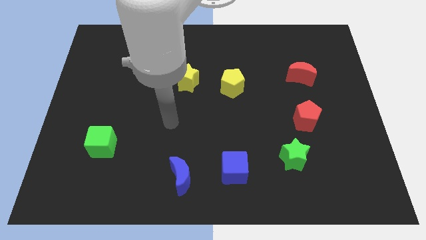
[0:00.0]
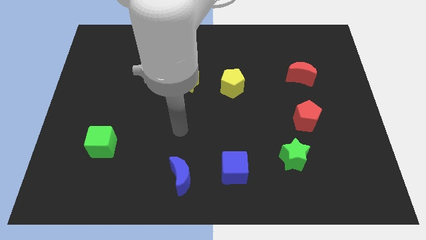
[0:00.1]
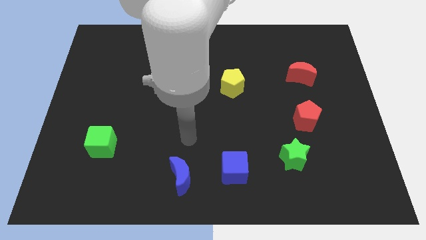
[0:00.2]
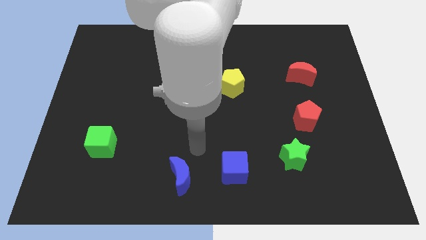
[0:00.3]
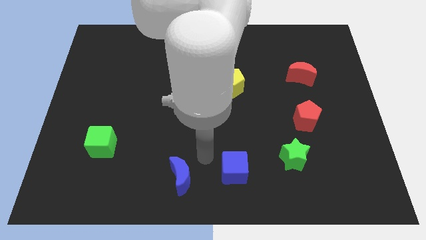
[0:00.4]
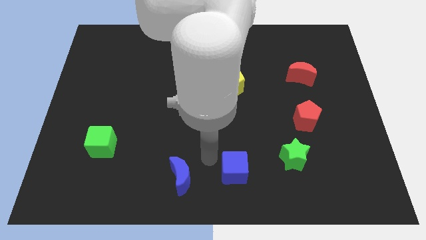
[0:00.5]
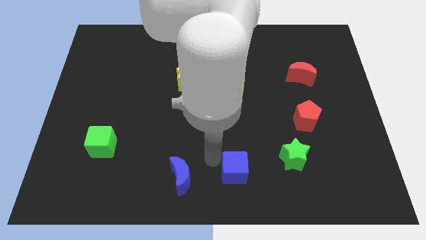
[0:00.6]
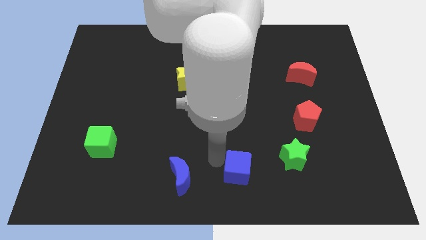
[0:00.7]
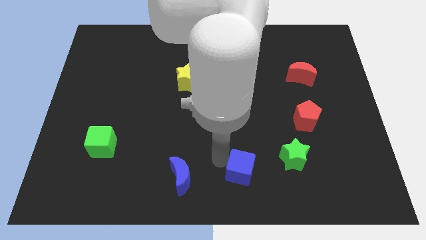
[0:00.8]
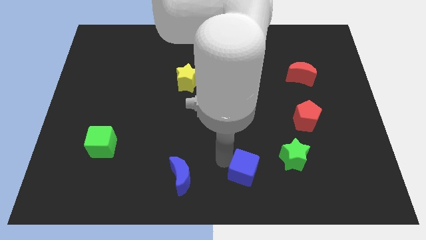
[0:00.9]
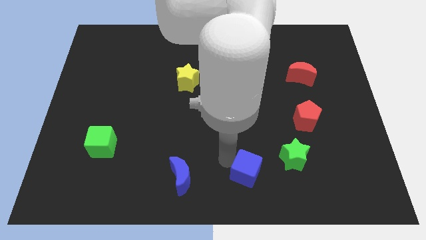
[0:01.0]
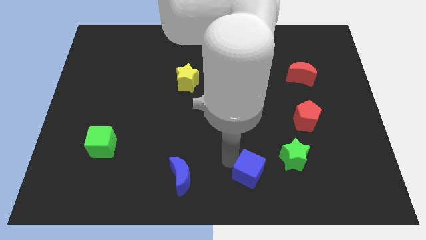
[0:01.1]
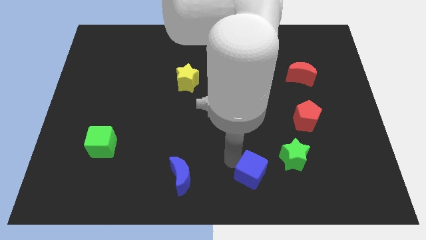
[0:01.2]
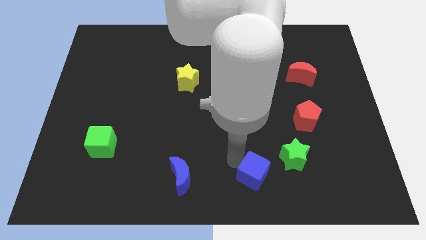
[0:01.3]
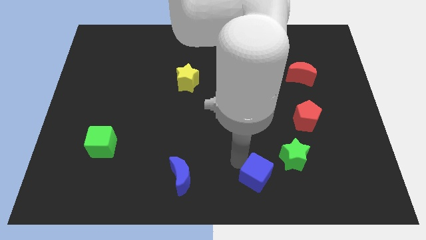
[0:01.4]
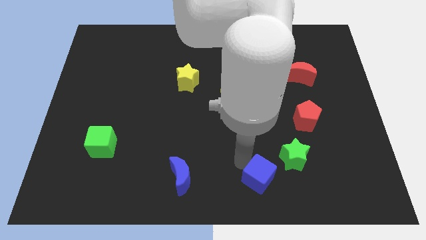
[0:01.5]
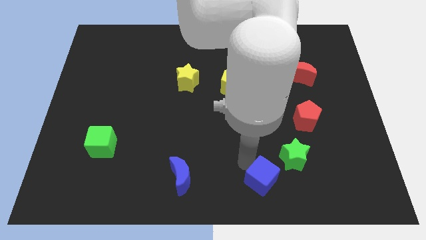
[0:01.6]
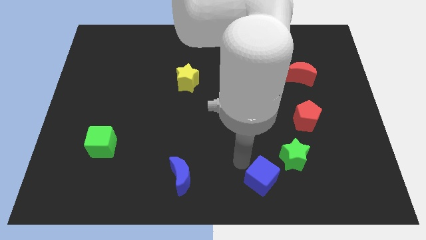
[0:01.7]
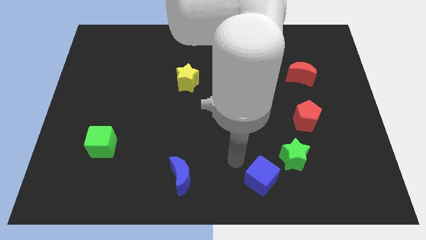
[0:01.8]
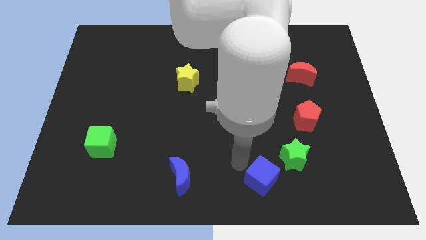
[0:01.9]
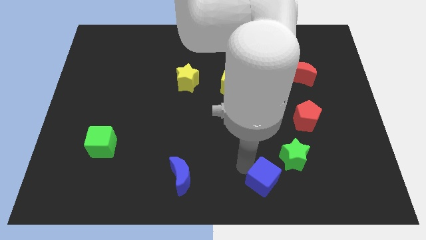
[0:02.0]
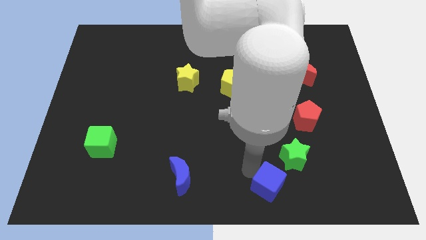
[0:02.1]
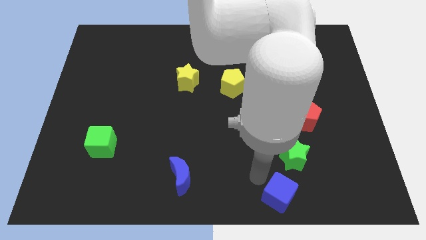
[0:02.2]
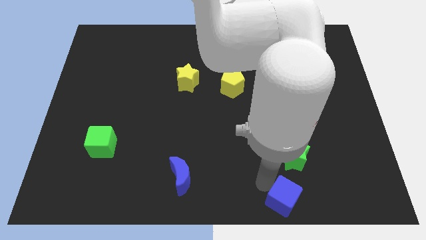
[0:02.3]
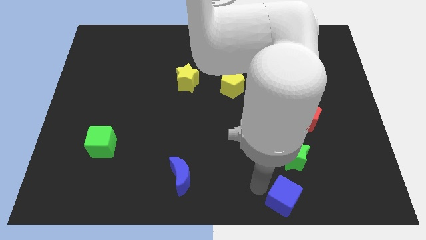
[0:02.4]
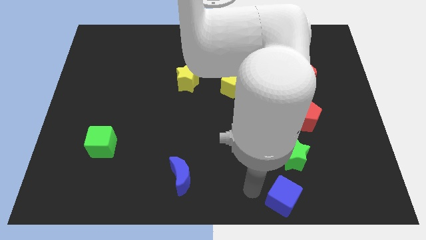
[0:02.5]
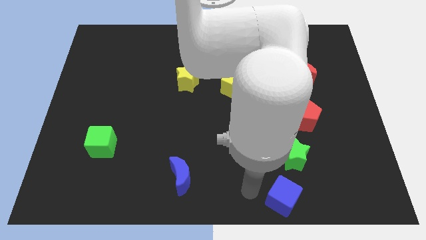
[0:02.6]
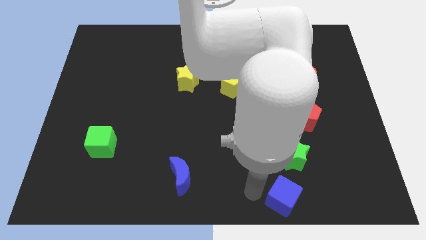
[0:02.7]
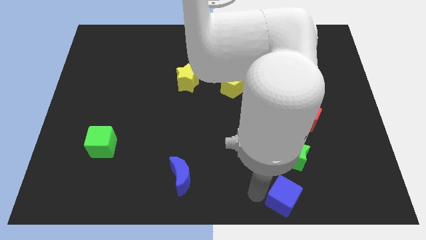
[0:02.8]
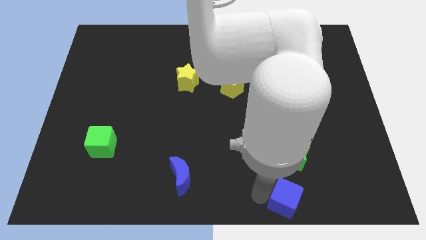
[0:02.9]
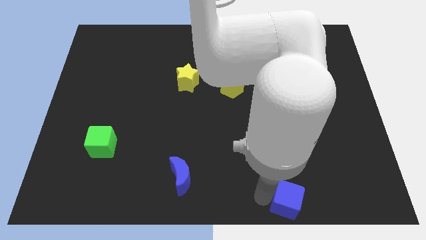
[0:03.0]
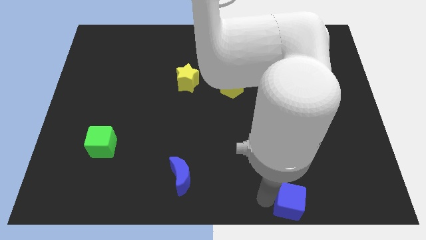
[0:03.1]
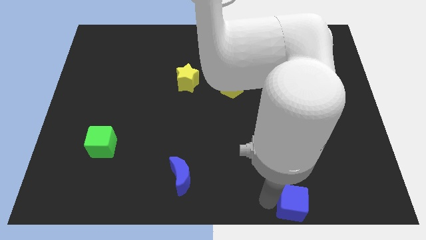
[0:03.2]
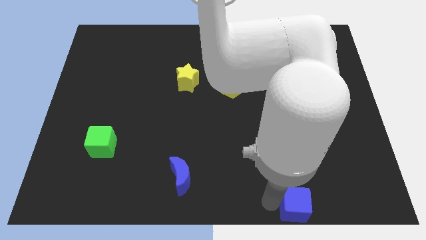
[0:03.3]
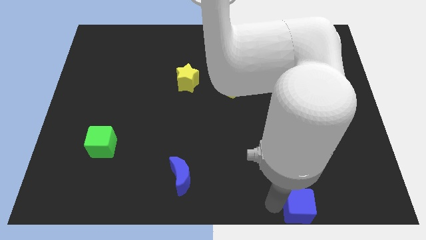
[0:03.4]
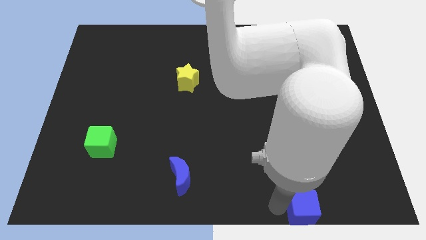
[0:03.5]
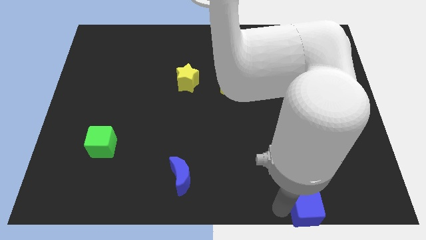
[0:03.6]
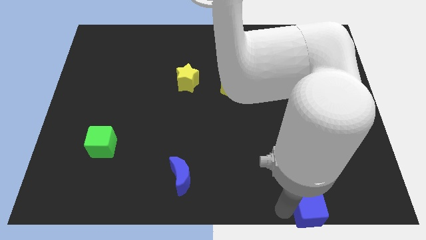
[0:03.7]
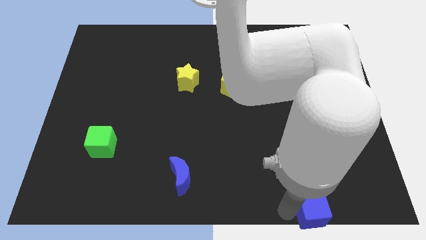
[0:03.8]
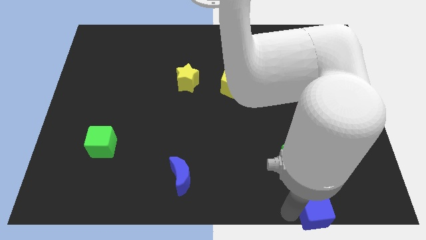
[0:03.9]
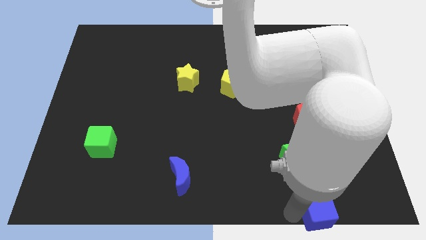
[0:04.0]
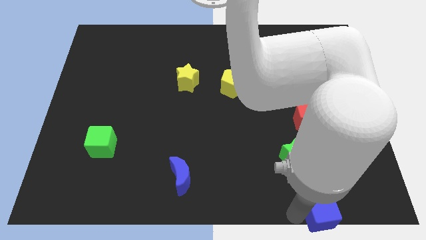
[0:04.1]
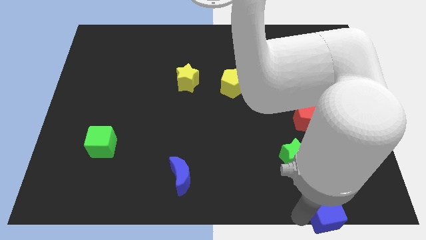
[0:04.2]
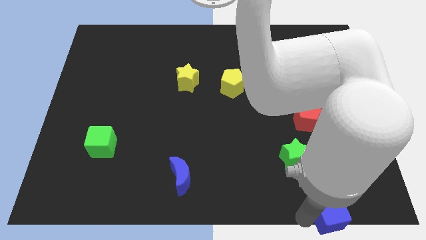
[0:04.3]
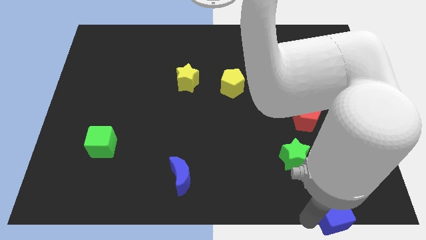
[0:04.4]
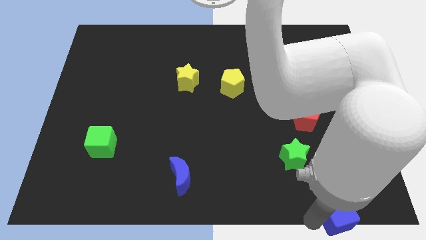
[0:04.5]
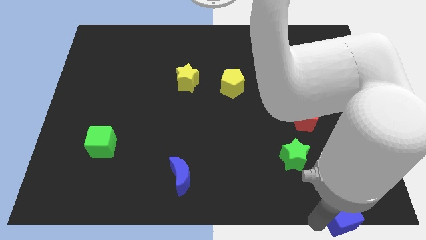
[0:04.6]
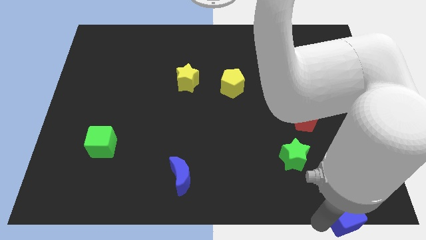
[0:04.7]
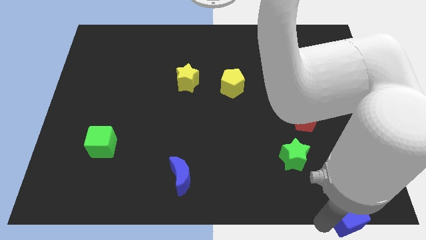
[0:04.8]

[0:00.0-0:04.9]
put the blue cube to the bottom right

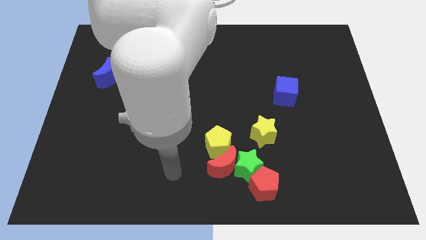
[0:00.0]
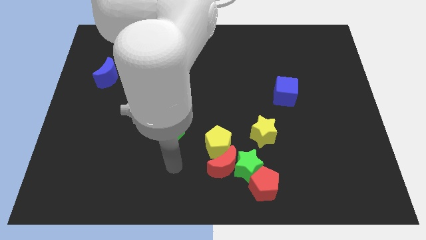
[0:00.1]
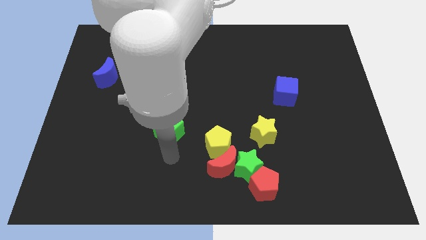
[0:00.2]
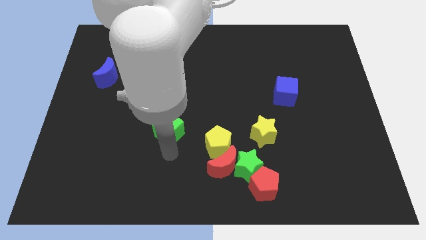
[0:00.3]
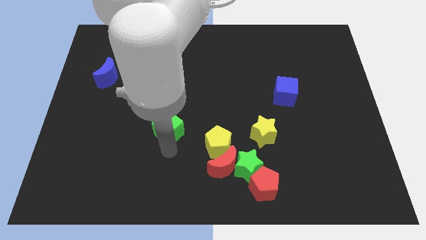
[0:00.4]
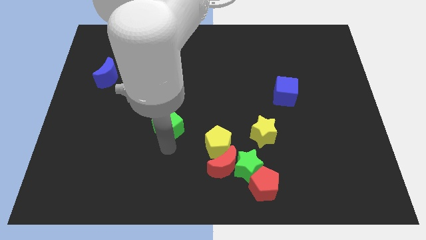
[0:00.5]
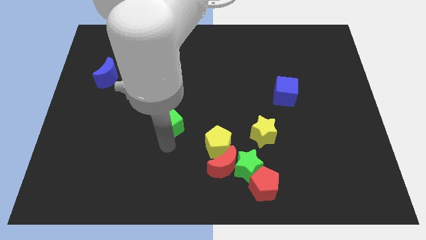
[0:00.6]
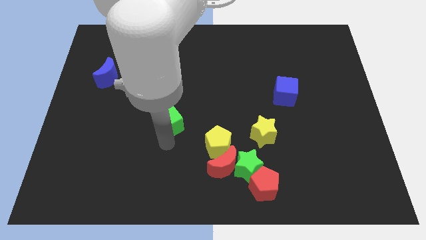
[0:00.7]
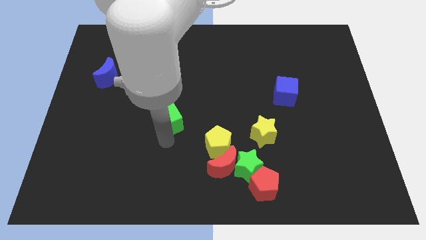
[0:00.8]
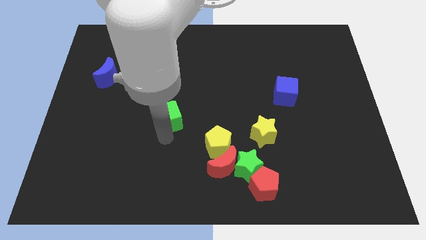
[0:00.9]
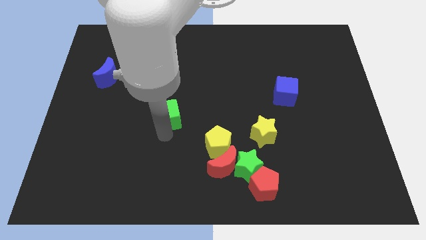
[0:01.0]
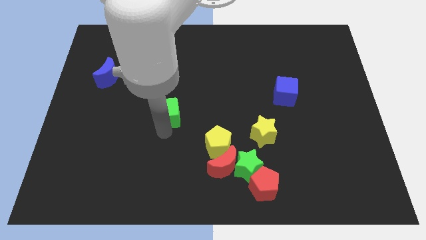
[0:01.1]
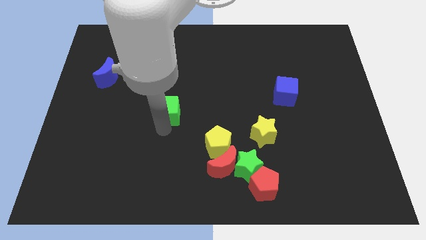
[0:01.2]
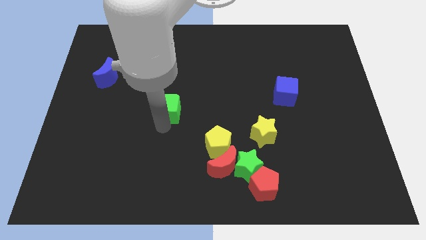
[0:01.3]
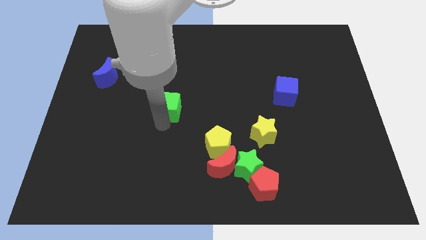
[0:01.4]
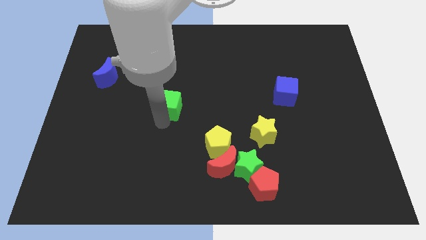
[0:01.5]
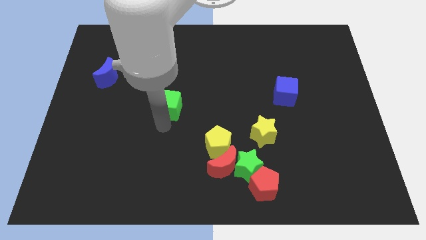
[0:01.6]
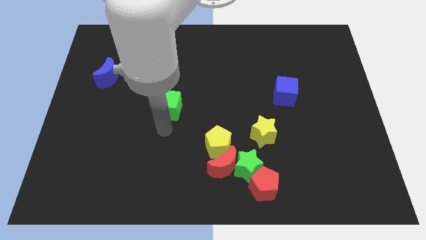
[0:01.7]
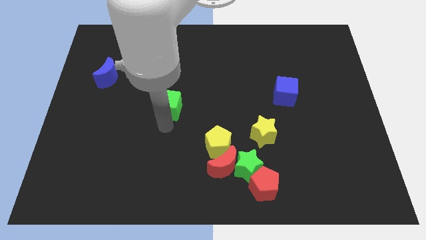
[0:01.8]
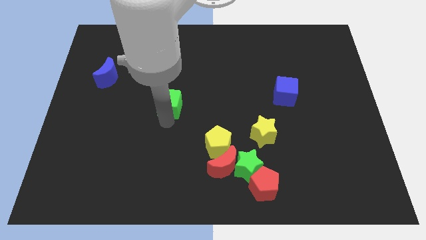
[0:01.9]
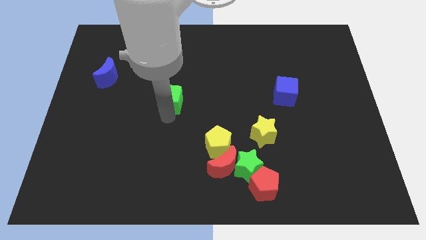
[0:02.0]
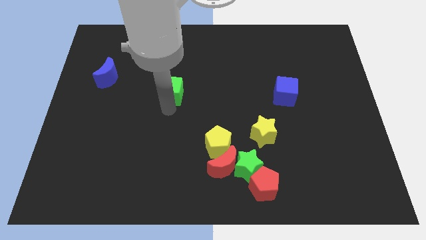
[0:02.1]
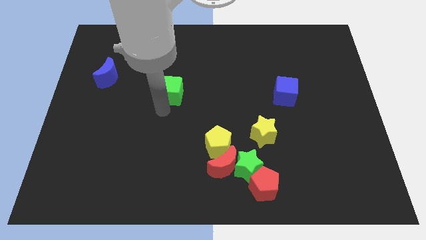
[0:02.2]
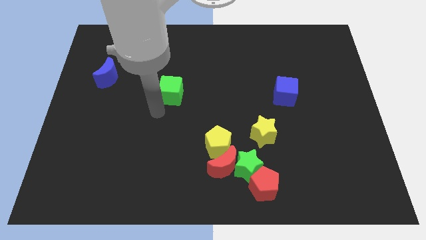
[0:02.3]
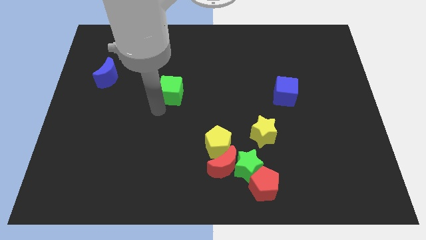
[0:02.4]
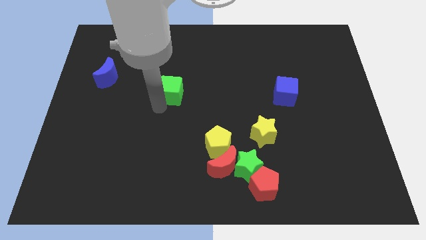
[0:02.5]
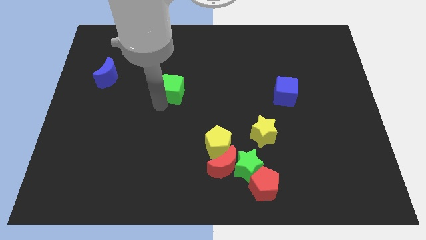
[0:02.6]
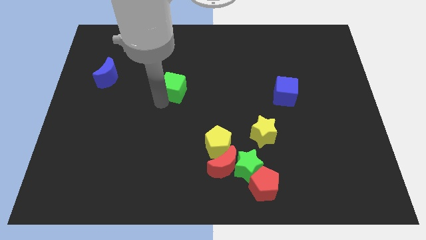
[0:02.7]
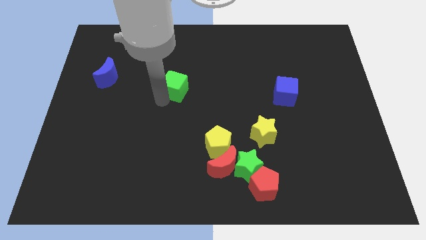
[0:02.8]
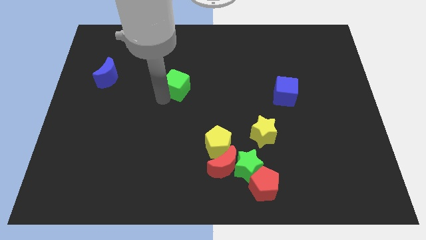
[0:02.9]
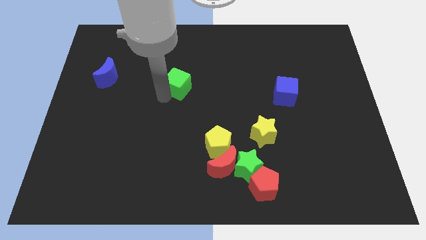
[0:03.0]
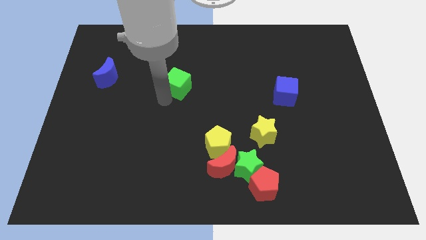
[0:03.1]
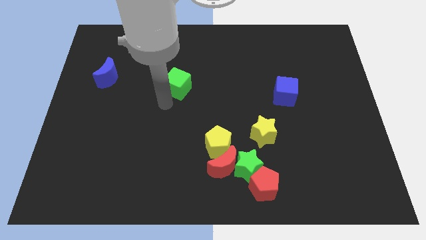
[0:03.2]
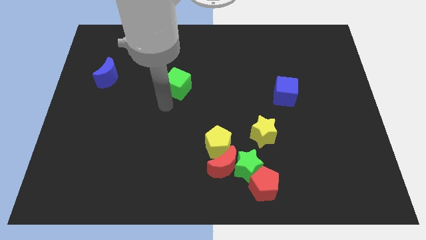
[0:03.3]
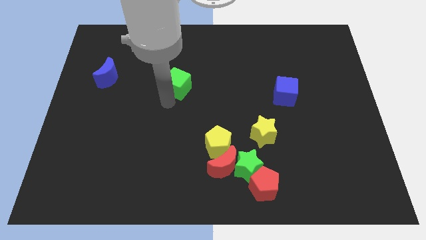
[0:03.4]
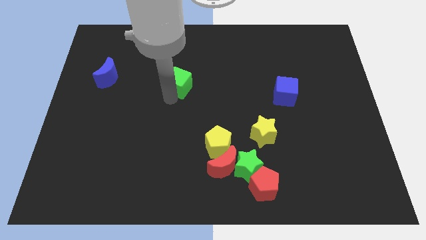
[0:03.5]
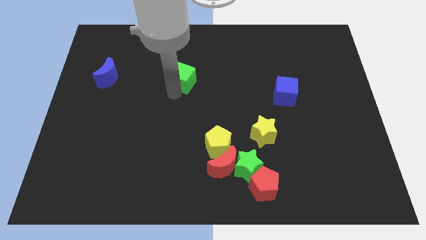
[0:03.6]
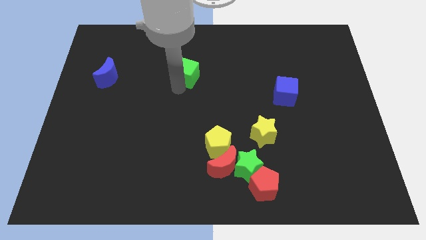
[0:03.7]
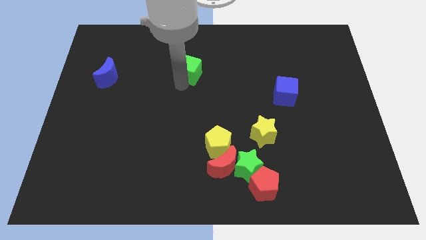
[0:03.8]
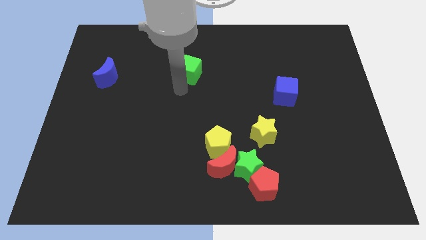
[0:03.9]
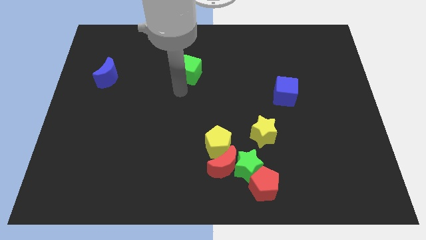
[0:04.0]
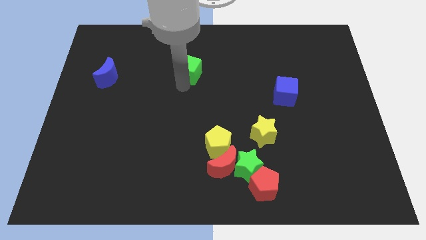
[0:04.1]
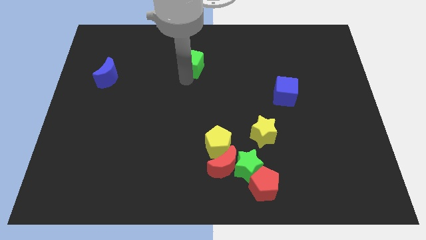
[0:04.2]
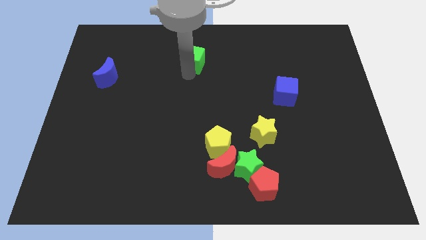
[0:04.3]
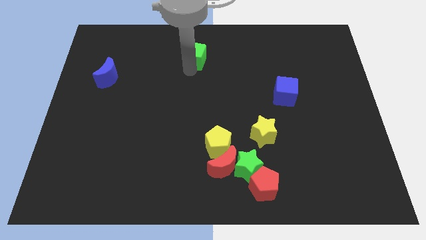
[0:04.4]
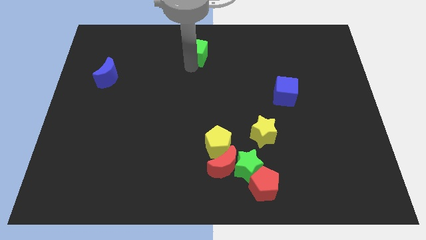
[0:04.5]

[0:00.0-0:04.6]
put the green cube to the top
